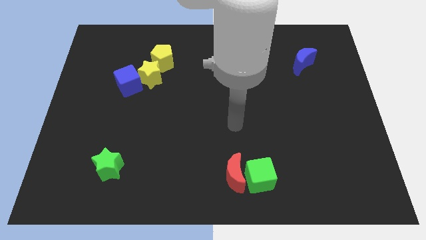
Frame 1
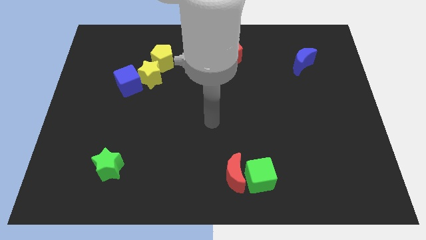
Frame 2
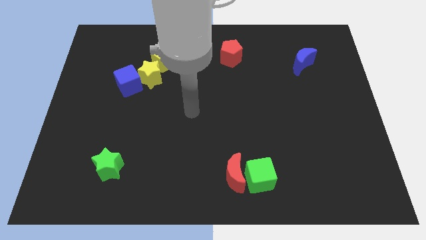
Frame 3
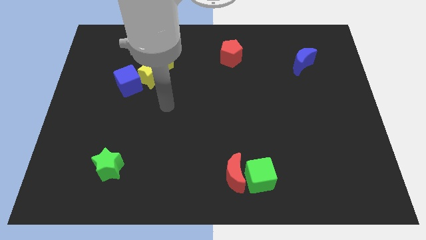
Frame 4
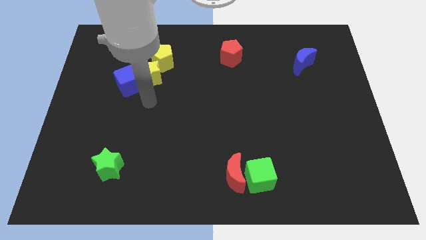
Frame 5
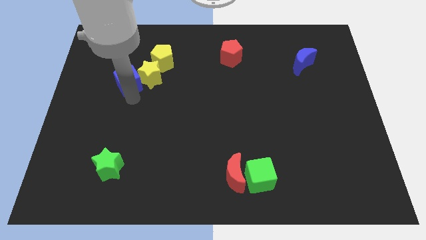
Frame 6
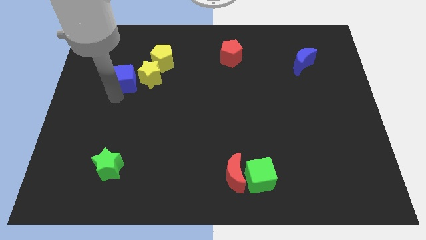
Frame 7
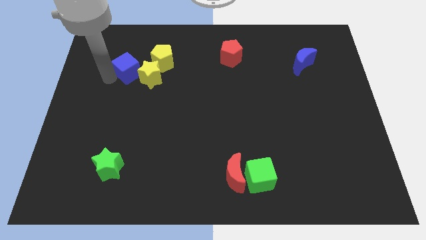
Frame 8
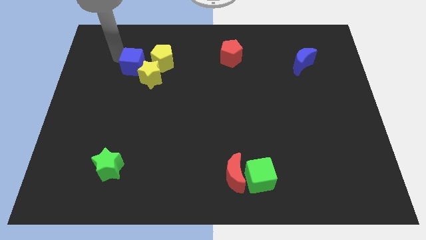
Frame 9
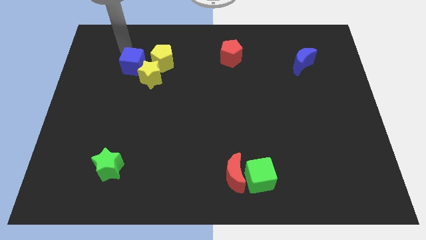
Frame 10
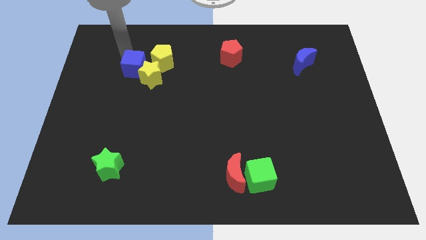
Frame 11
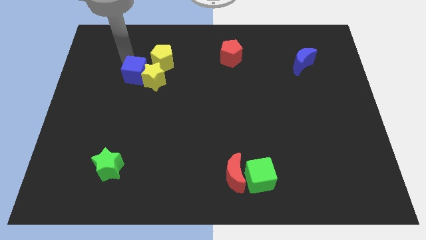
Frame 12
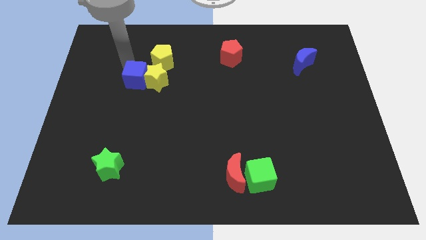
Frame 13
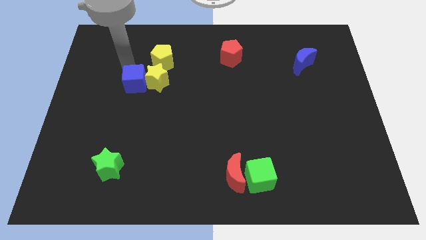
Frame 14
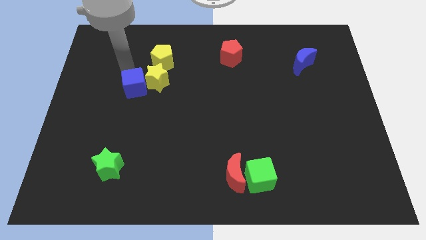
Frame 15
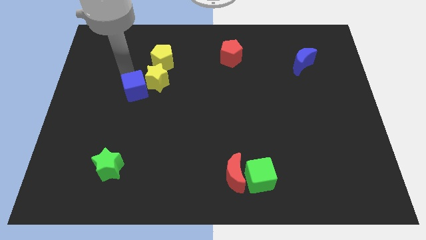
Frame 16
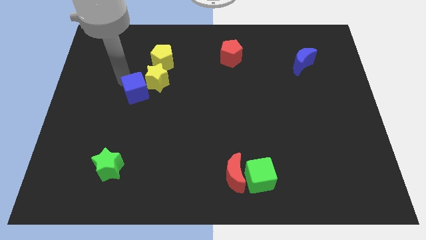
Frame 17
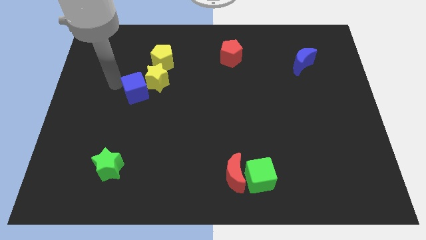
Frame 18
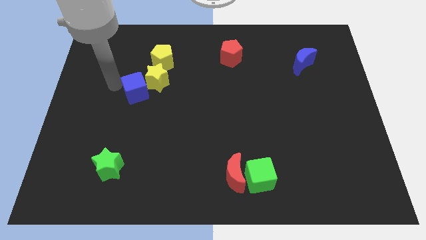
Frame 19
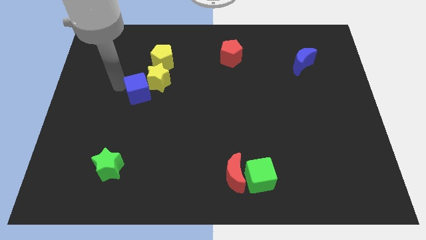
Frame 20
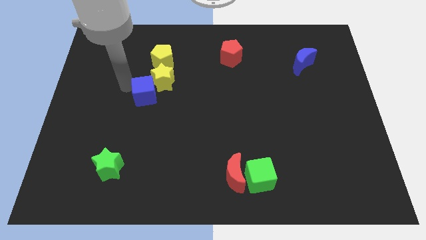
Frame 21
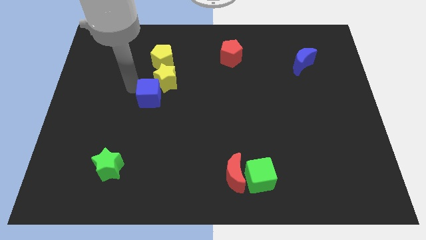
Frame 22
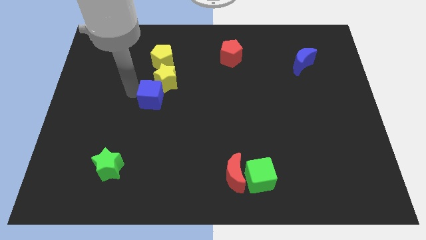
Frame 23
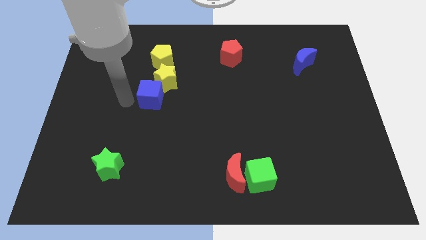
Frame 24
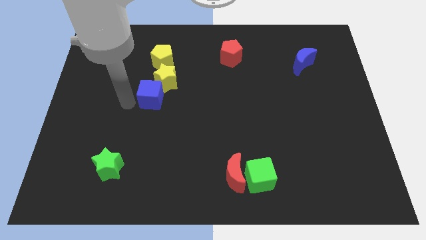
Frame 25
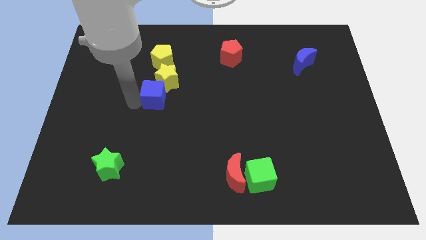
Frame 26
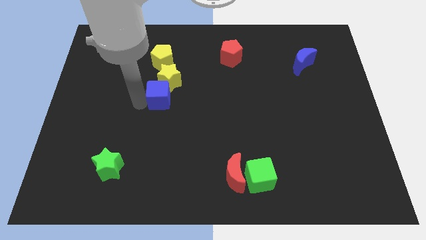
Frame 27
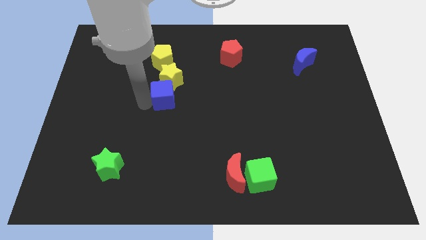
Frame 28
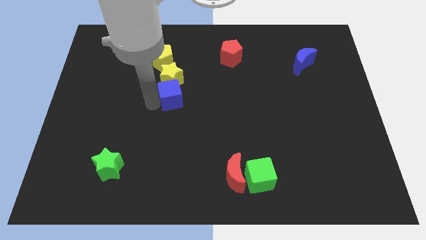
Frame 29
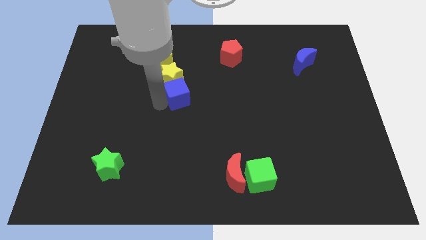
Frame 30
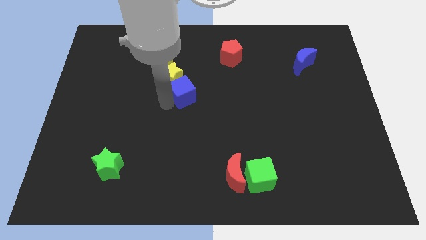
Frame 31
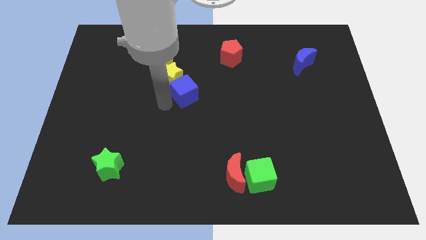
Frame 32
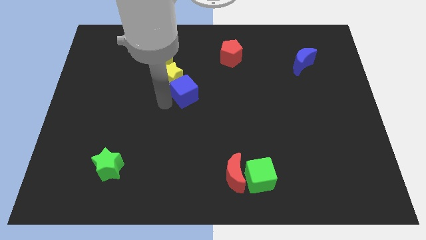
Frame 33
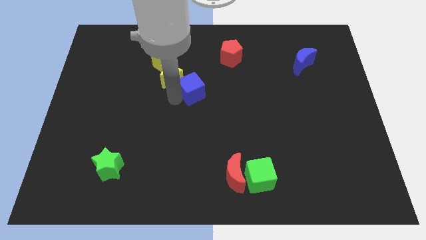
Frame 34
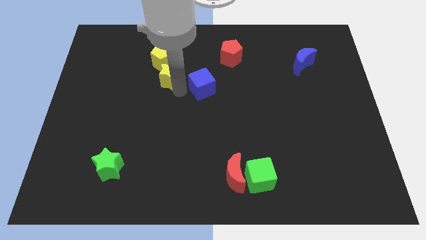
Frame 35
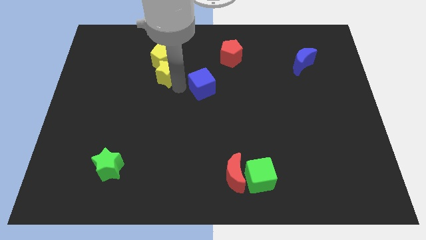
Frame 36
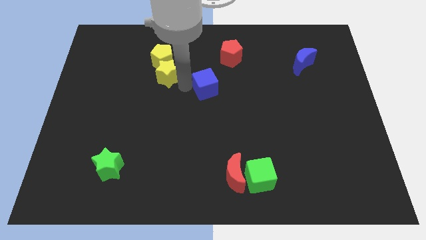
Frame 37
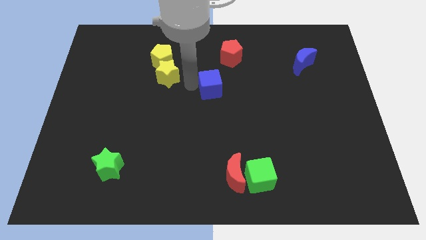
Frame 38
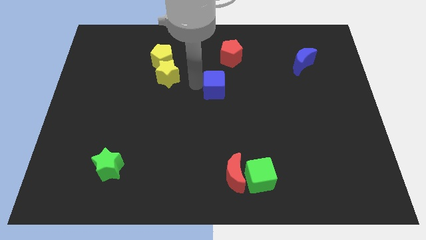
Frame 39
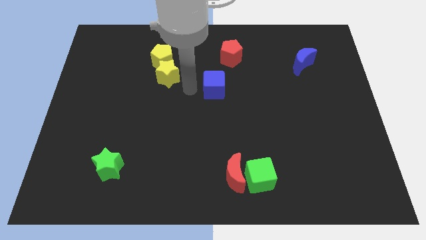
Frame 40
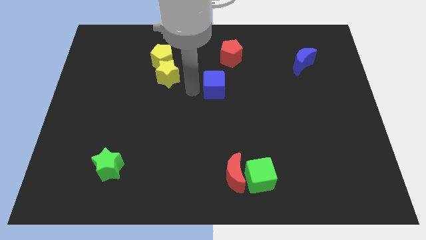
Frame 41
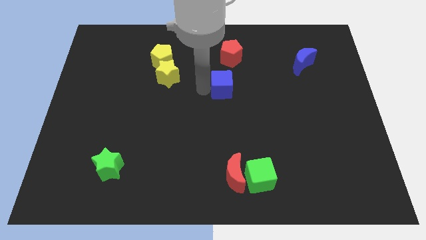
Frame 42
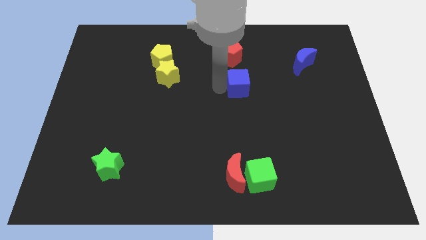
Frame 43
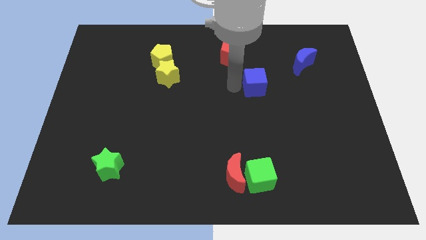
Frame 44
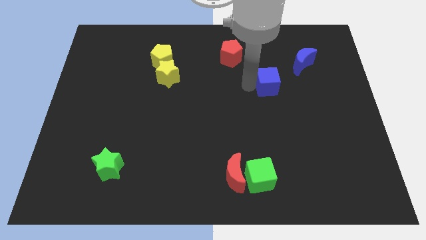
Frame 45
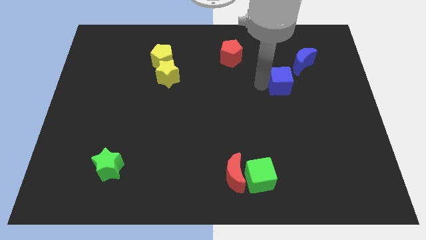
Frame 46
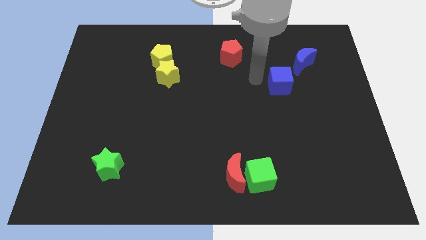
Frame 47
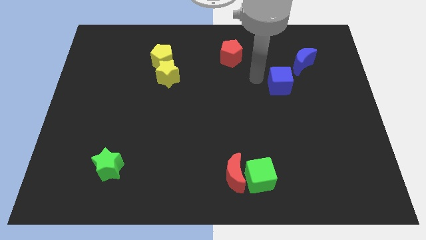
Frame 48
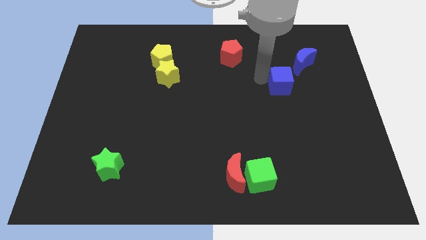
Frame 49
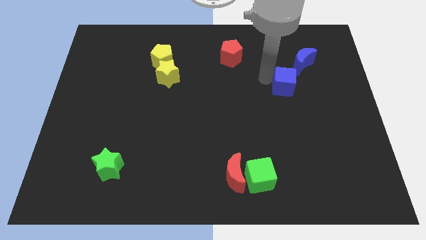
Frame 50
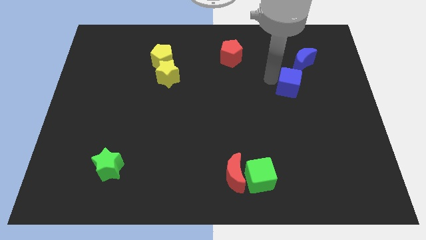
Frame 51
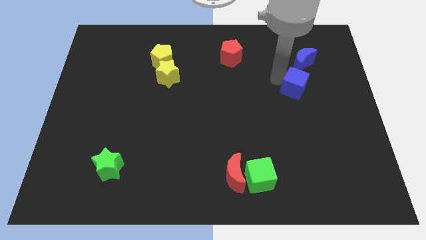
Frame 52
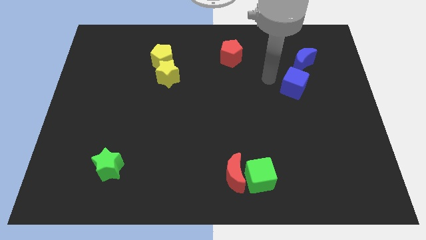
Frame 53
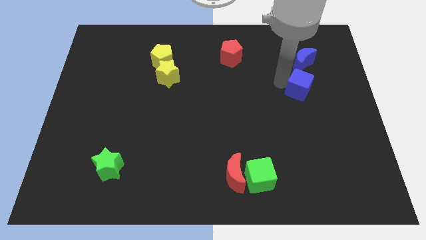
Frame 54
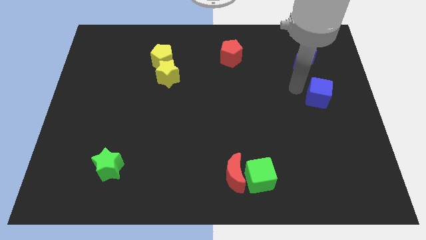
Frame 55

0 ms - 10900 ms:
slide the blue cube to the center right
